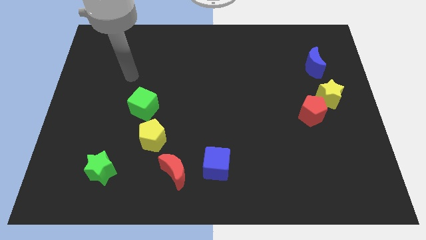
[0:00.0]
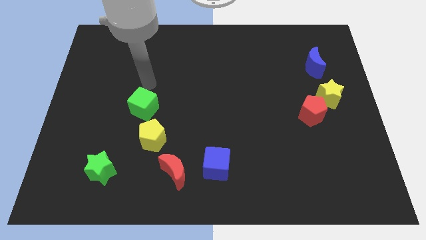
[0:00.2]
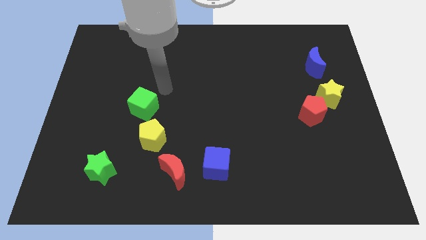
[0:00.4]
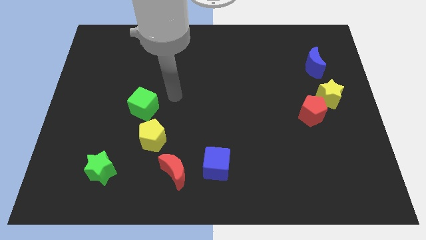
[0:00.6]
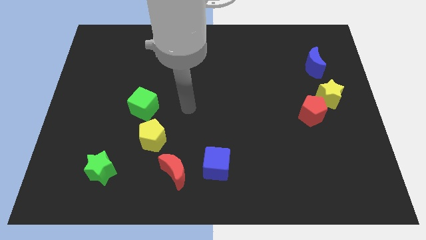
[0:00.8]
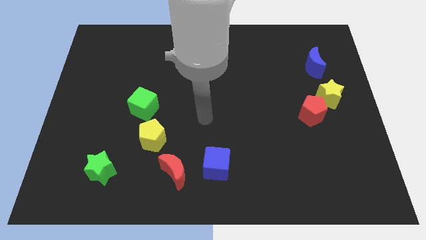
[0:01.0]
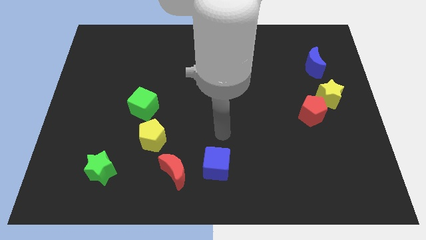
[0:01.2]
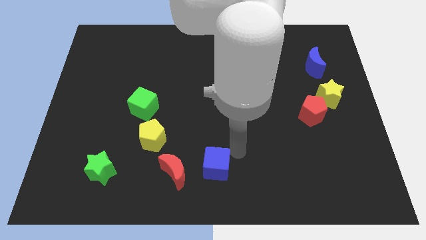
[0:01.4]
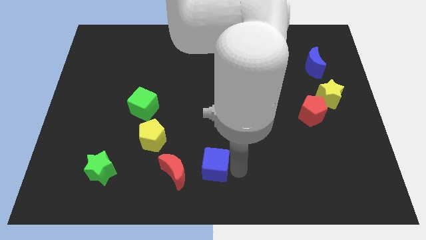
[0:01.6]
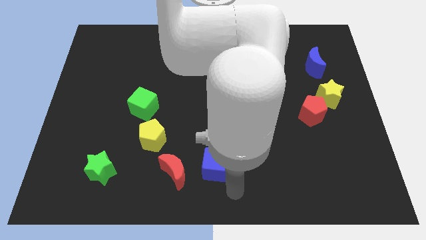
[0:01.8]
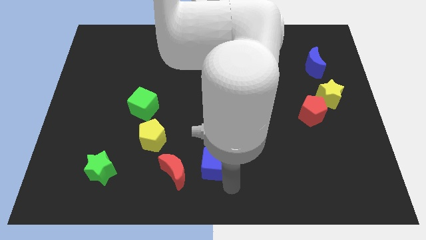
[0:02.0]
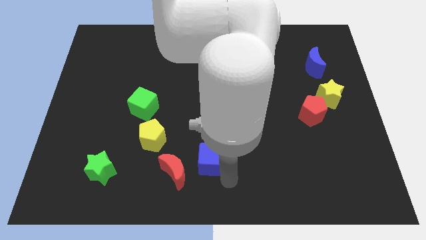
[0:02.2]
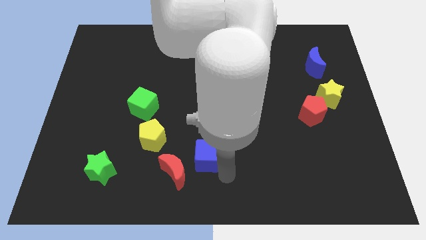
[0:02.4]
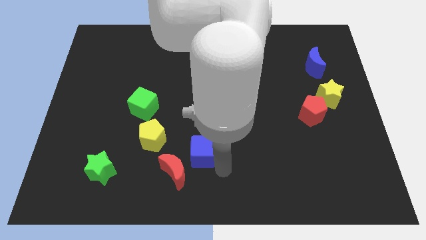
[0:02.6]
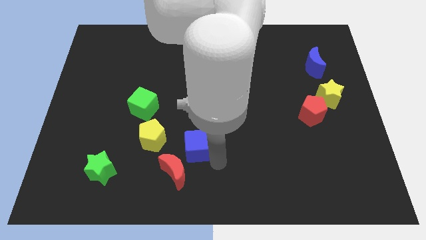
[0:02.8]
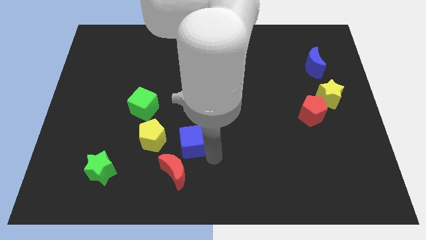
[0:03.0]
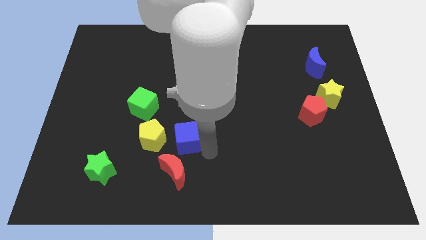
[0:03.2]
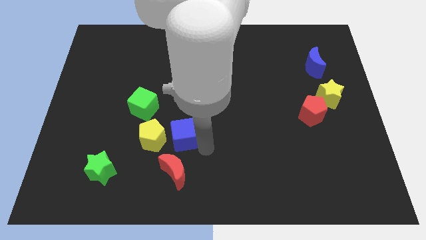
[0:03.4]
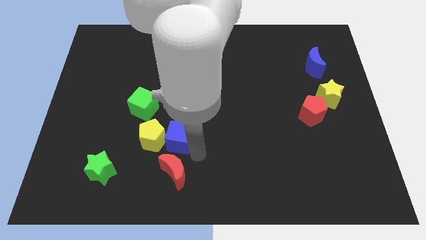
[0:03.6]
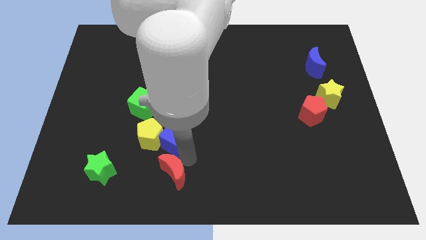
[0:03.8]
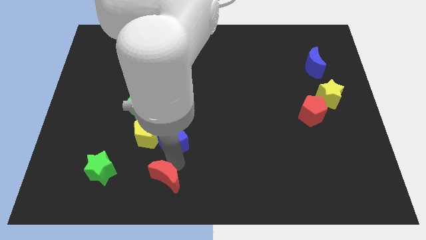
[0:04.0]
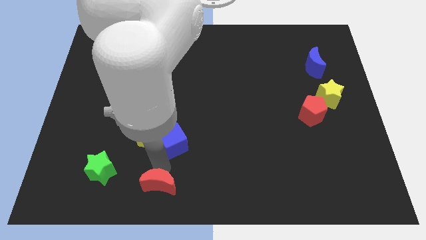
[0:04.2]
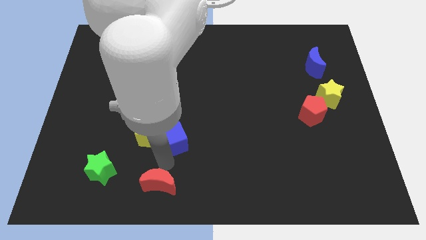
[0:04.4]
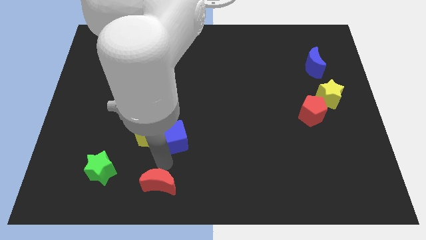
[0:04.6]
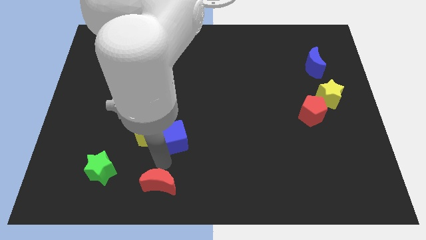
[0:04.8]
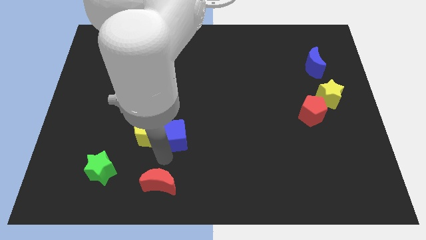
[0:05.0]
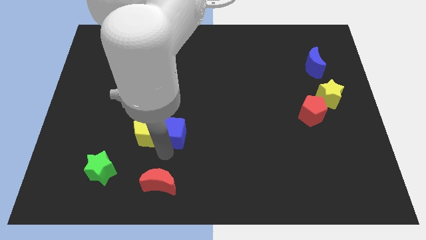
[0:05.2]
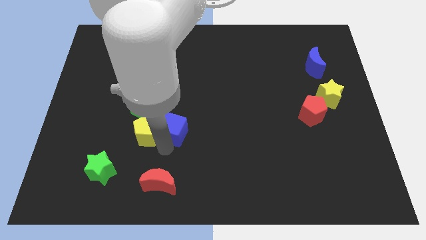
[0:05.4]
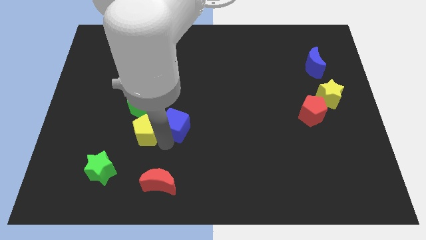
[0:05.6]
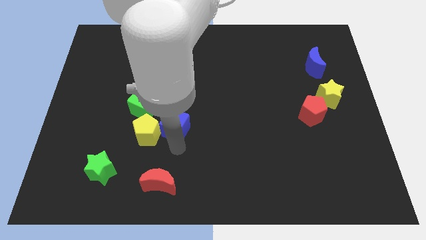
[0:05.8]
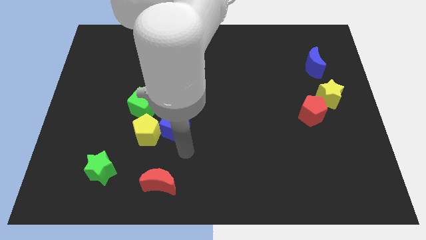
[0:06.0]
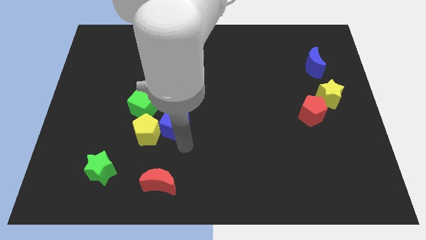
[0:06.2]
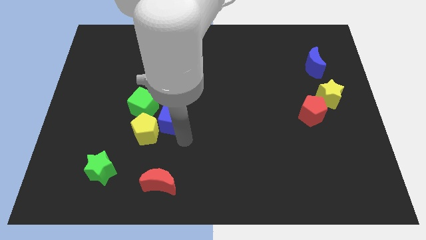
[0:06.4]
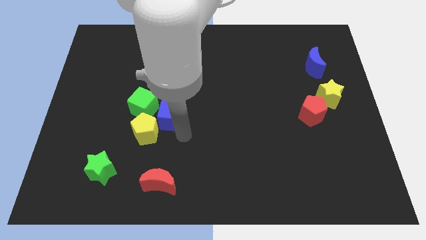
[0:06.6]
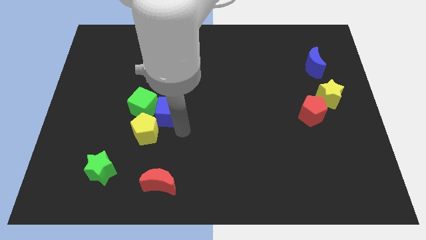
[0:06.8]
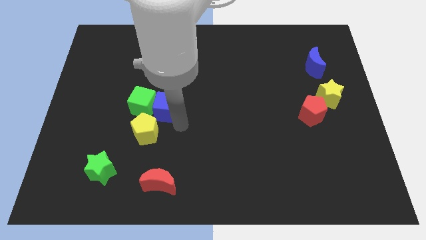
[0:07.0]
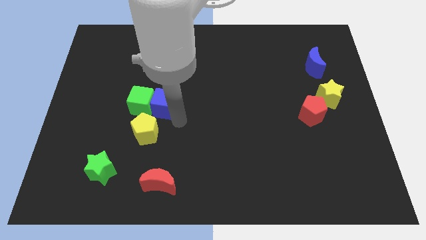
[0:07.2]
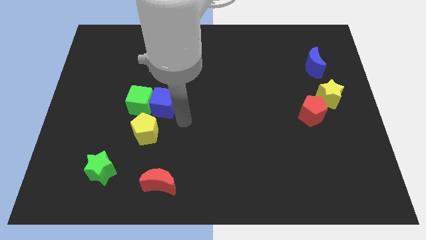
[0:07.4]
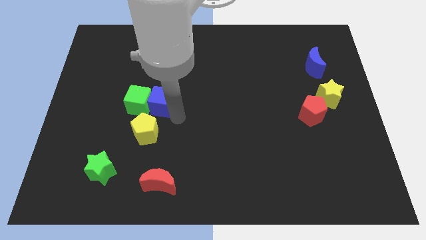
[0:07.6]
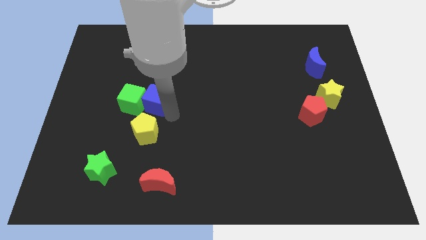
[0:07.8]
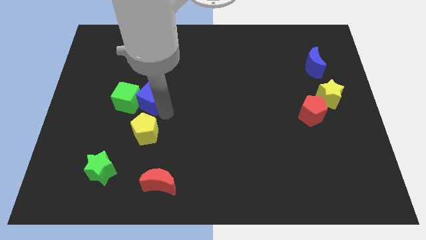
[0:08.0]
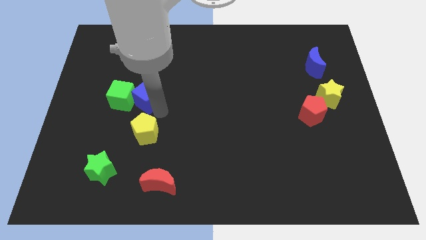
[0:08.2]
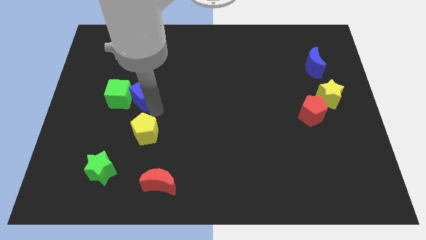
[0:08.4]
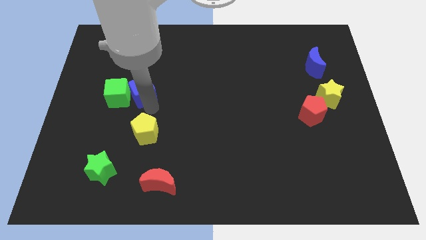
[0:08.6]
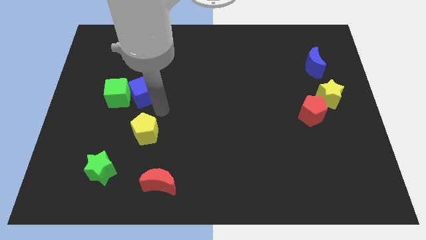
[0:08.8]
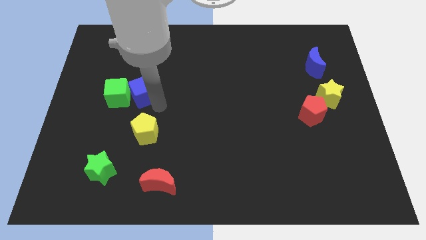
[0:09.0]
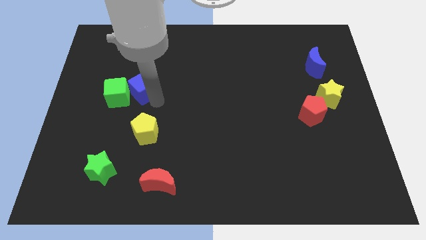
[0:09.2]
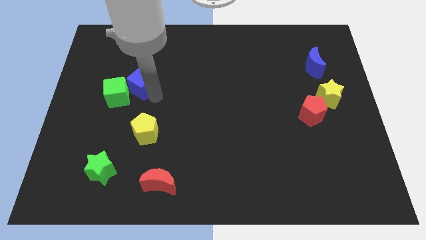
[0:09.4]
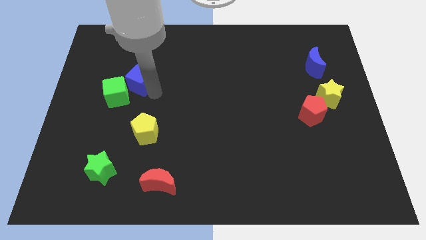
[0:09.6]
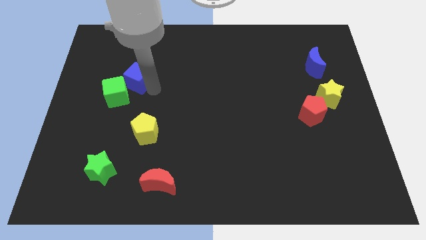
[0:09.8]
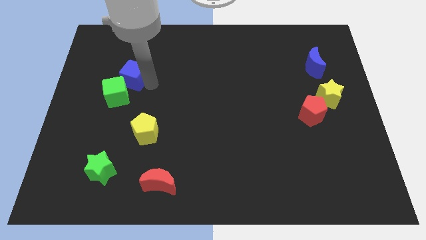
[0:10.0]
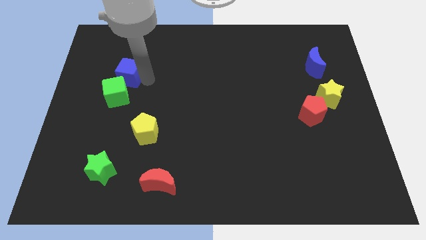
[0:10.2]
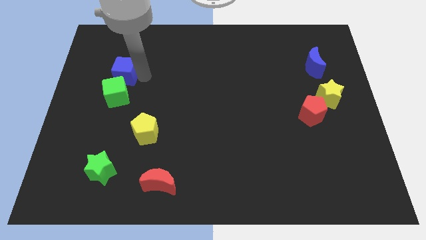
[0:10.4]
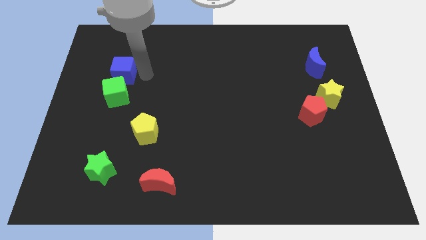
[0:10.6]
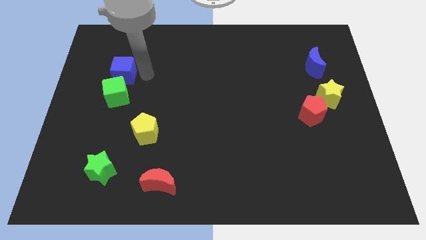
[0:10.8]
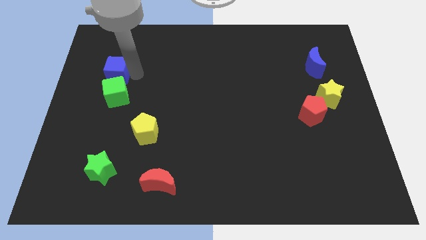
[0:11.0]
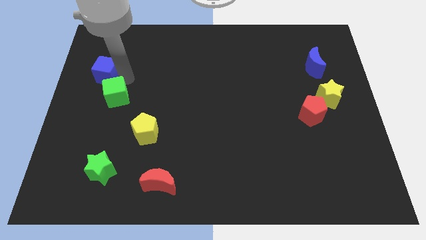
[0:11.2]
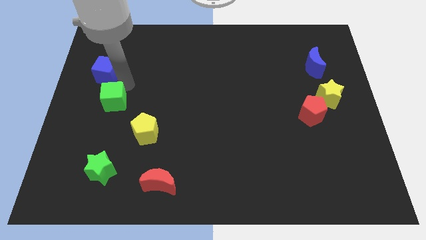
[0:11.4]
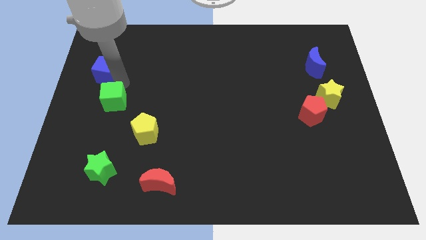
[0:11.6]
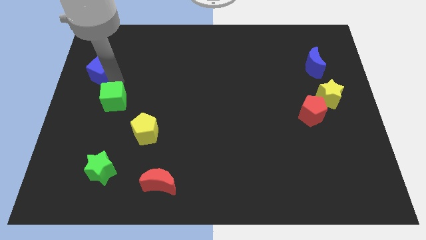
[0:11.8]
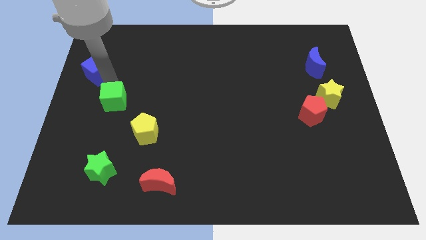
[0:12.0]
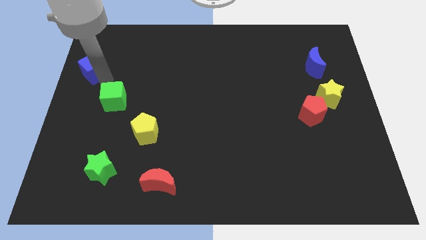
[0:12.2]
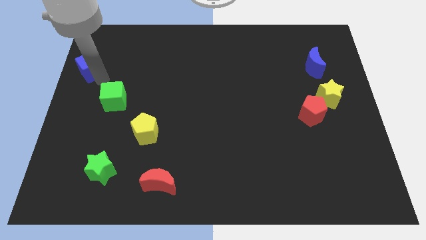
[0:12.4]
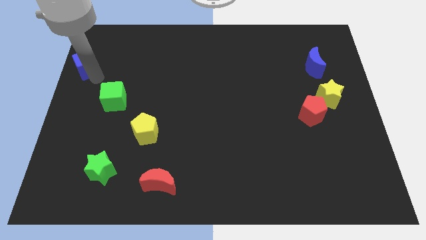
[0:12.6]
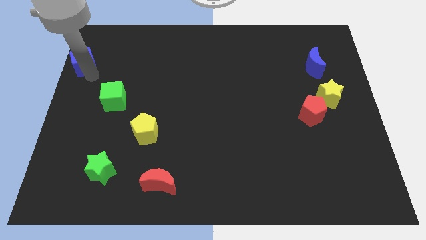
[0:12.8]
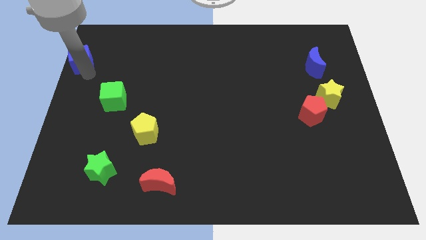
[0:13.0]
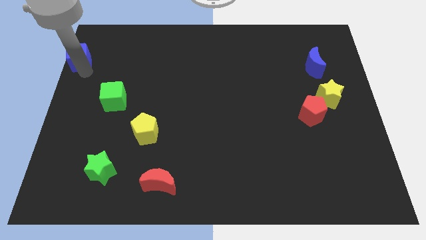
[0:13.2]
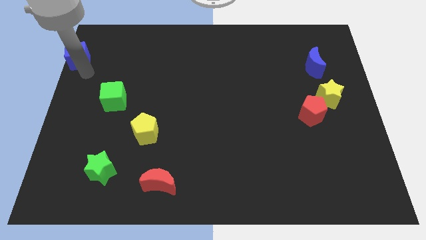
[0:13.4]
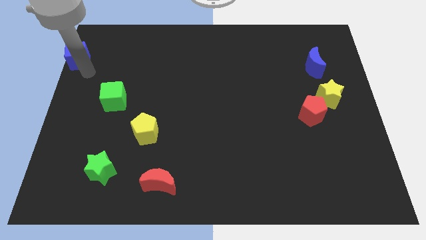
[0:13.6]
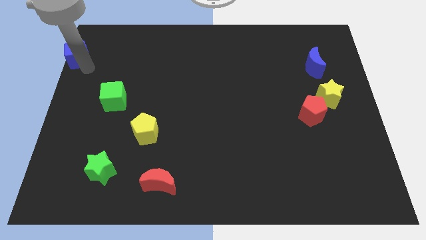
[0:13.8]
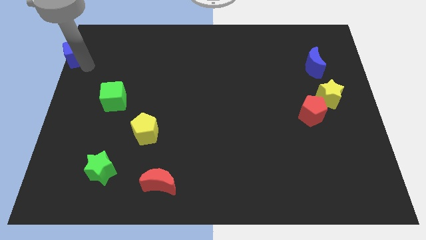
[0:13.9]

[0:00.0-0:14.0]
slide the blue cube to the upper left corner
